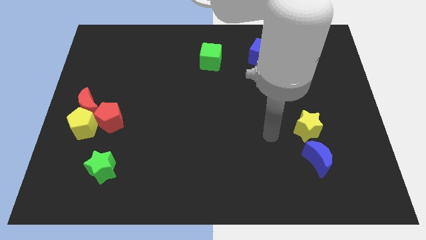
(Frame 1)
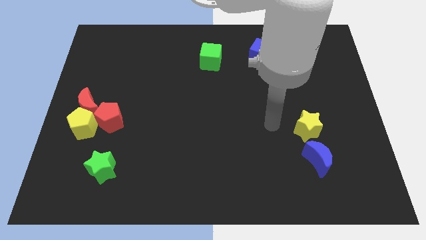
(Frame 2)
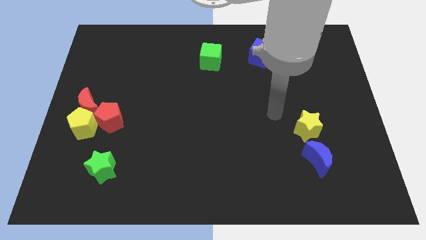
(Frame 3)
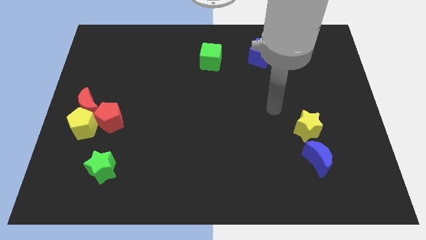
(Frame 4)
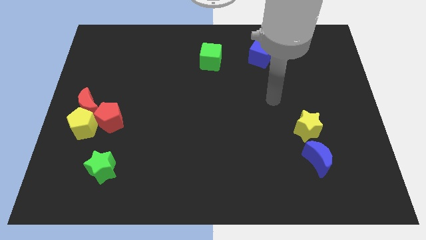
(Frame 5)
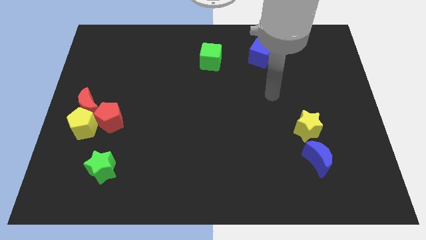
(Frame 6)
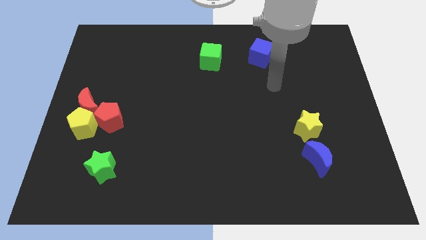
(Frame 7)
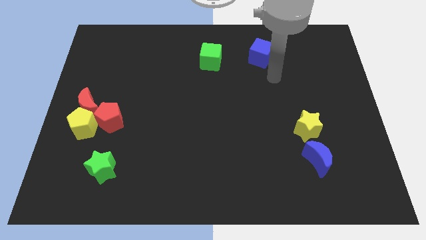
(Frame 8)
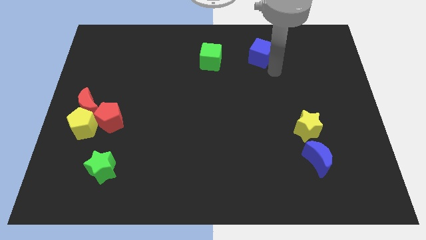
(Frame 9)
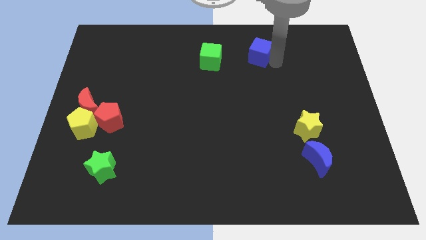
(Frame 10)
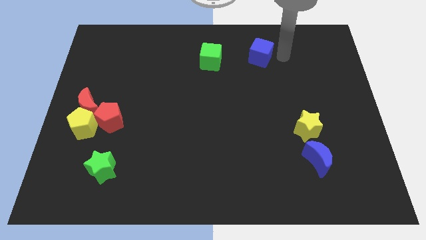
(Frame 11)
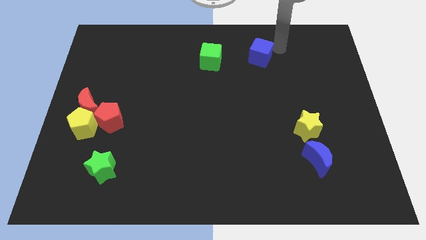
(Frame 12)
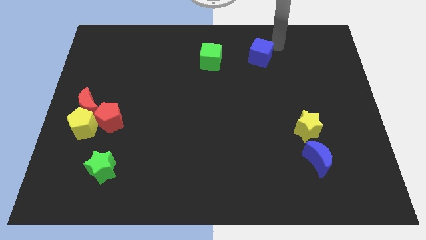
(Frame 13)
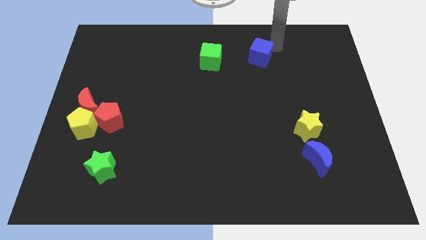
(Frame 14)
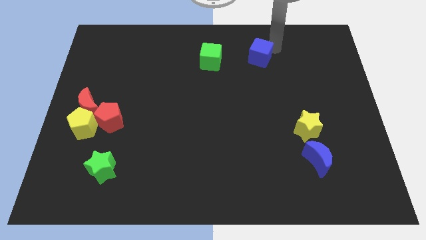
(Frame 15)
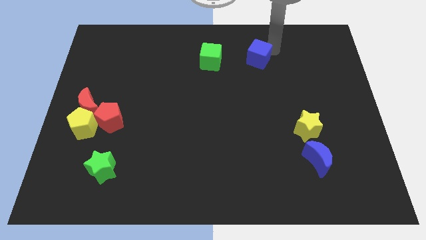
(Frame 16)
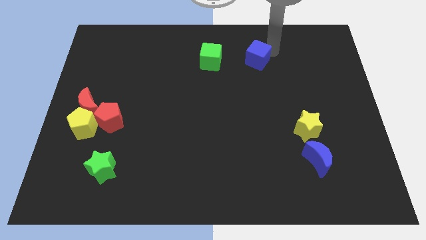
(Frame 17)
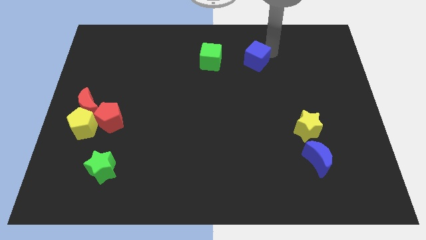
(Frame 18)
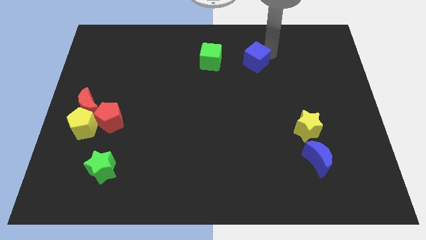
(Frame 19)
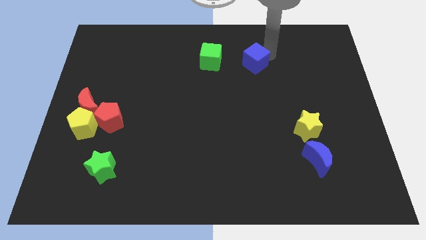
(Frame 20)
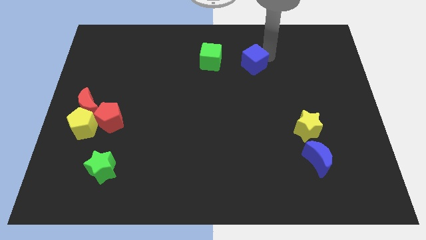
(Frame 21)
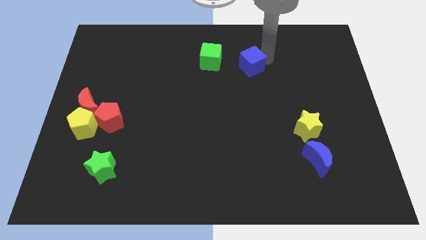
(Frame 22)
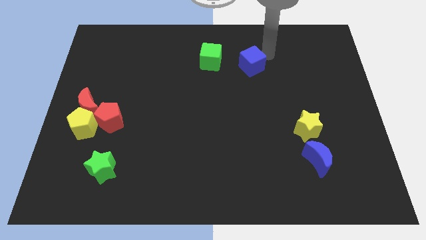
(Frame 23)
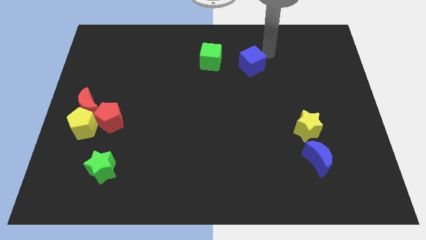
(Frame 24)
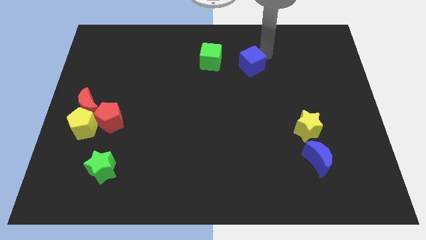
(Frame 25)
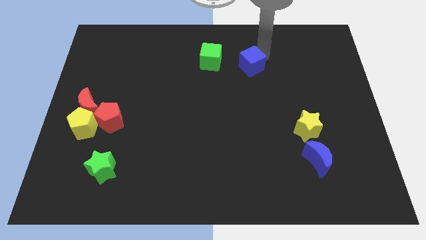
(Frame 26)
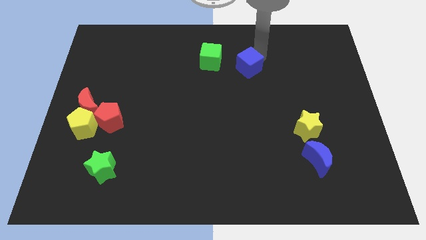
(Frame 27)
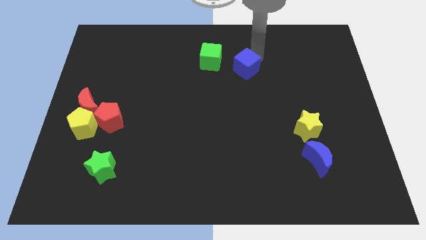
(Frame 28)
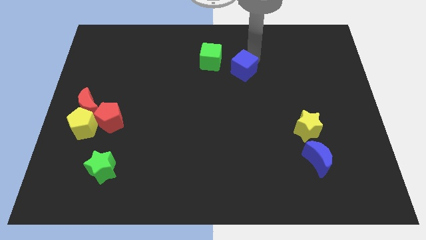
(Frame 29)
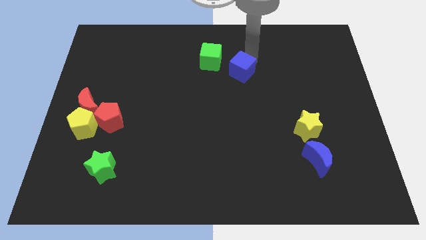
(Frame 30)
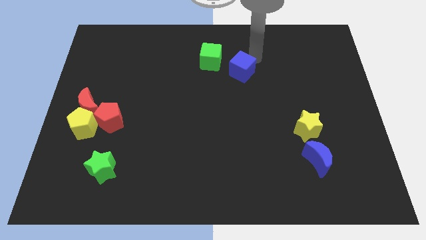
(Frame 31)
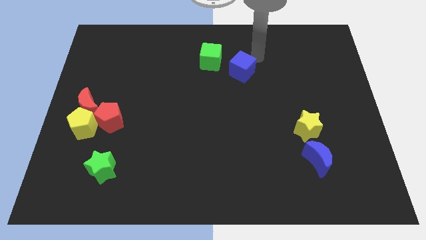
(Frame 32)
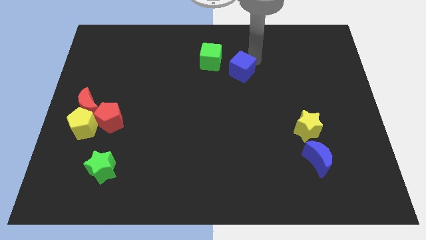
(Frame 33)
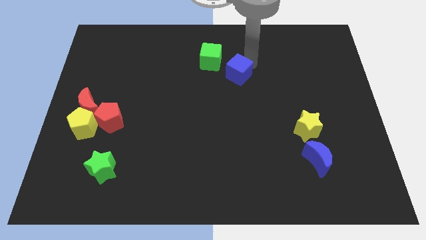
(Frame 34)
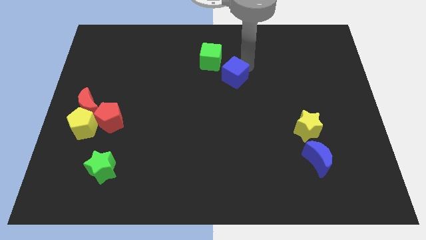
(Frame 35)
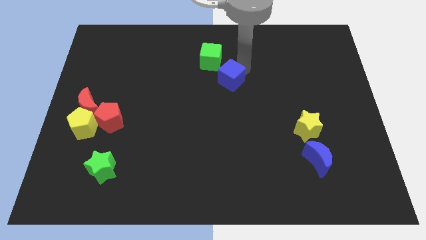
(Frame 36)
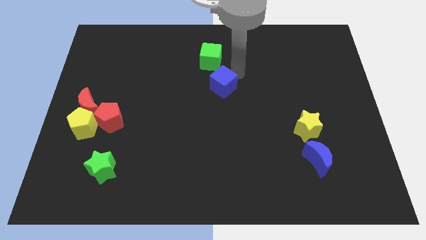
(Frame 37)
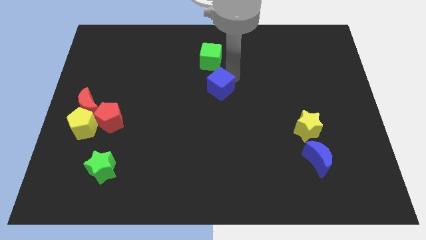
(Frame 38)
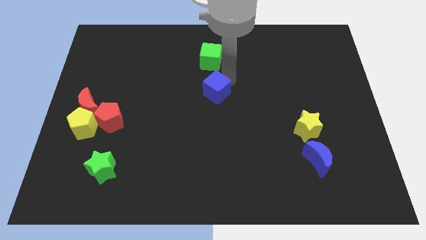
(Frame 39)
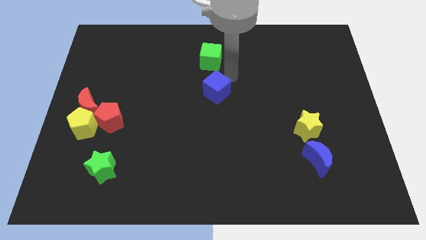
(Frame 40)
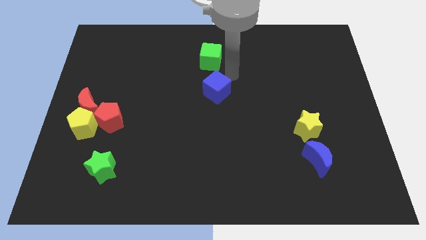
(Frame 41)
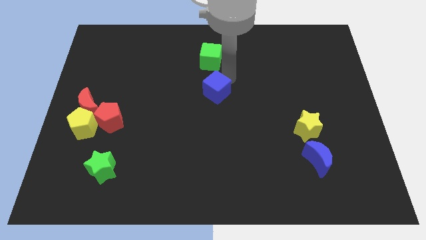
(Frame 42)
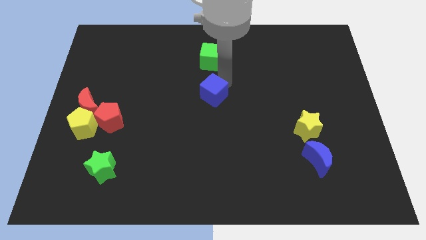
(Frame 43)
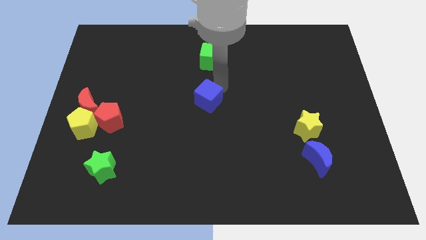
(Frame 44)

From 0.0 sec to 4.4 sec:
slide the blue cube diagonally downwards and to the left

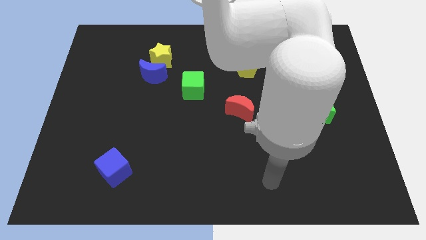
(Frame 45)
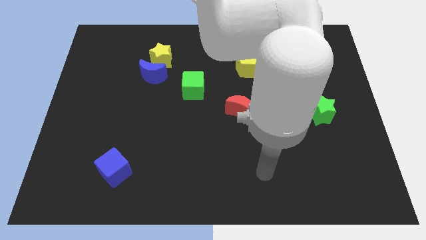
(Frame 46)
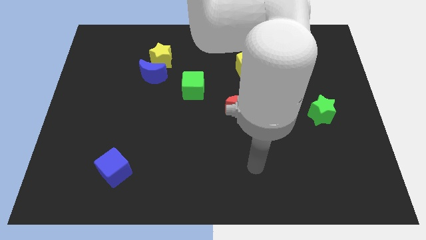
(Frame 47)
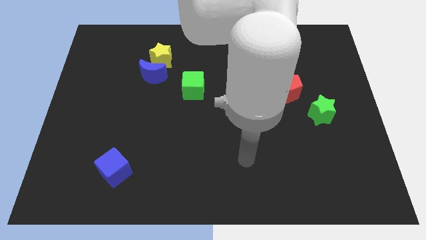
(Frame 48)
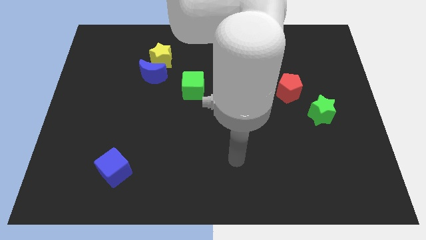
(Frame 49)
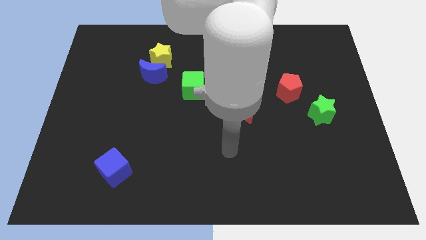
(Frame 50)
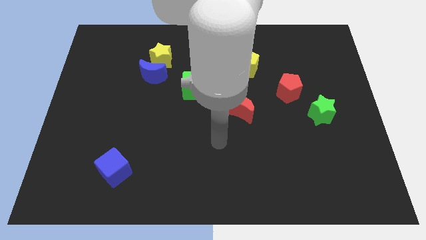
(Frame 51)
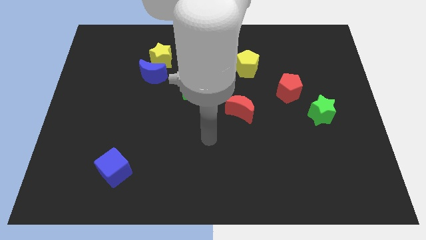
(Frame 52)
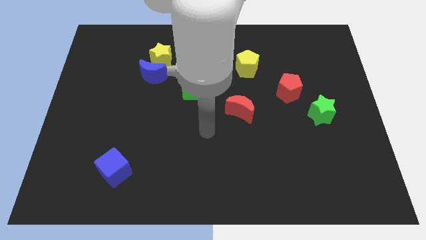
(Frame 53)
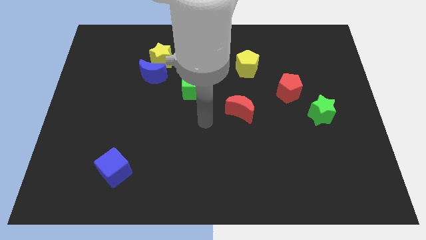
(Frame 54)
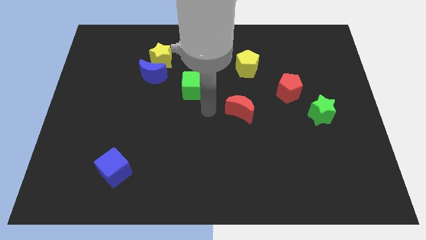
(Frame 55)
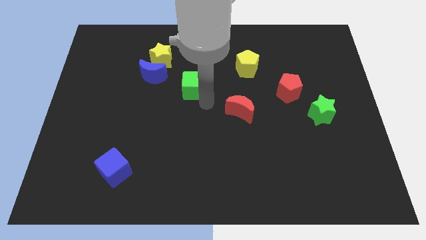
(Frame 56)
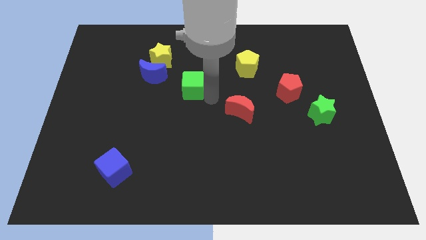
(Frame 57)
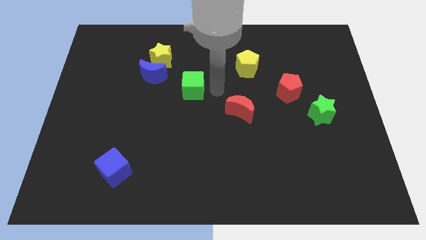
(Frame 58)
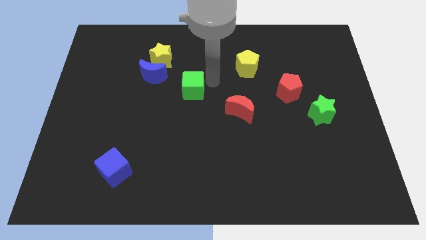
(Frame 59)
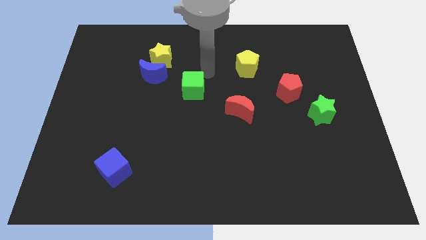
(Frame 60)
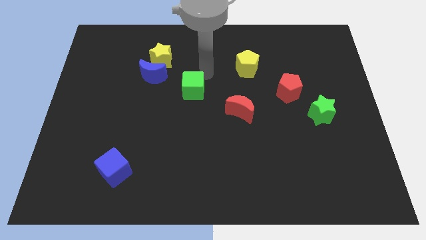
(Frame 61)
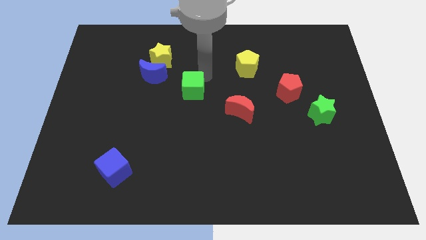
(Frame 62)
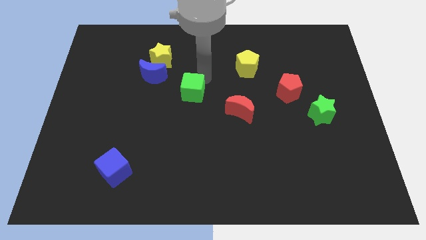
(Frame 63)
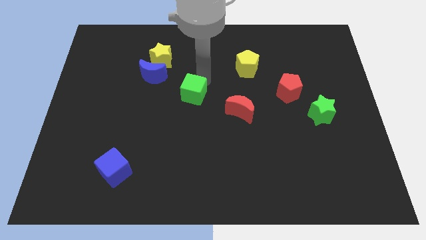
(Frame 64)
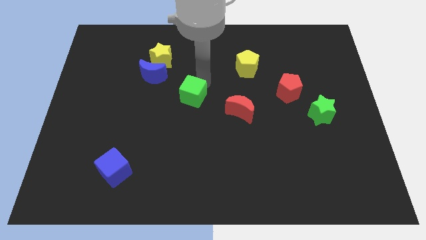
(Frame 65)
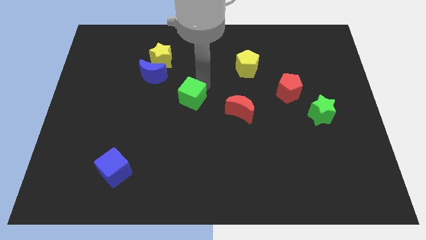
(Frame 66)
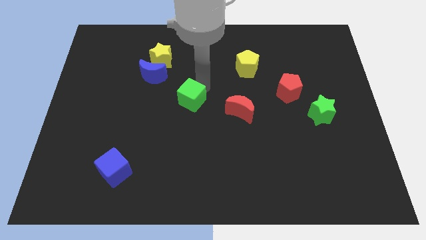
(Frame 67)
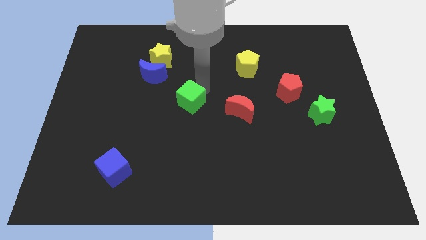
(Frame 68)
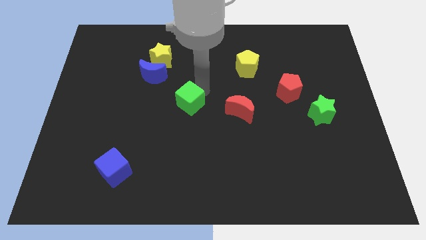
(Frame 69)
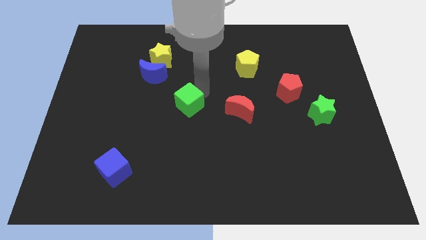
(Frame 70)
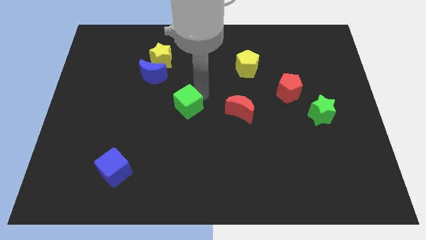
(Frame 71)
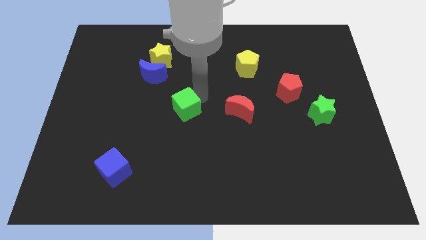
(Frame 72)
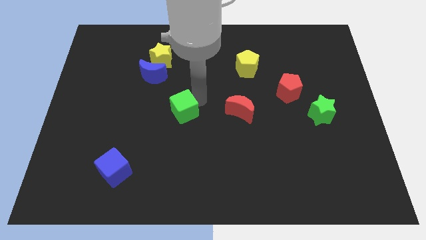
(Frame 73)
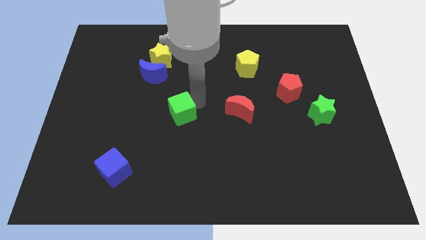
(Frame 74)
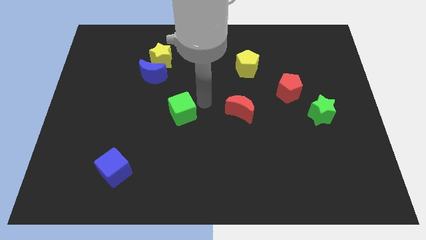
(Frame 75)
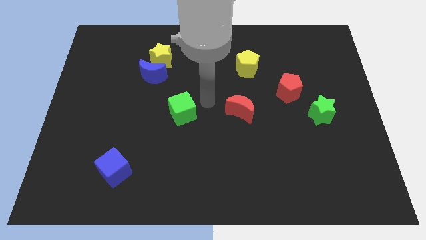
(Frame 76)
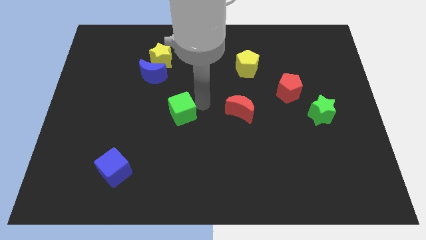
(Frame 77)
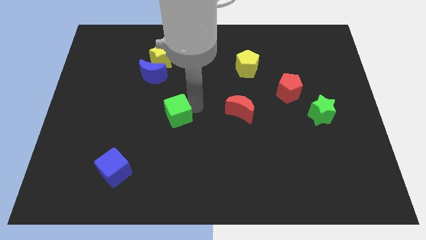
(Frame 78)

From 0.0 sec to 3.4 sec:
push the green cube down and to the left somewhat

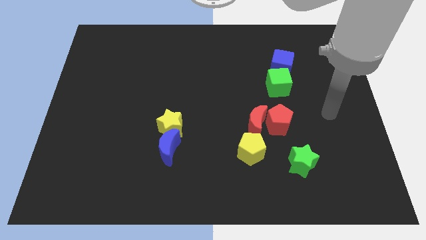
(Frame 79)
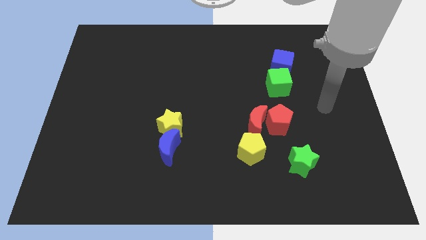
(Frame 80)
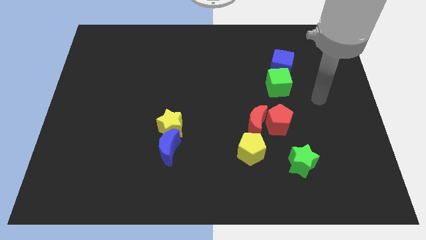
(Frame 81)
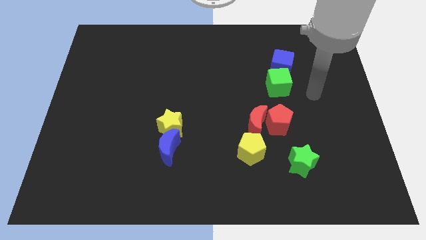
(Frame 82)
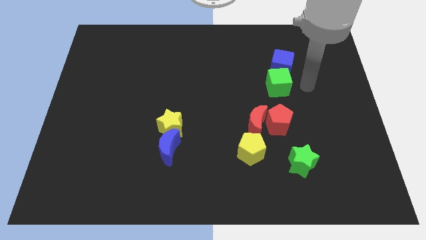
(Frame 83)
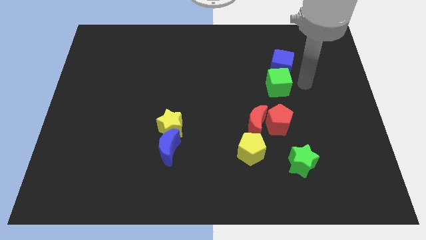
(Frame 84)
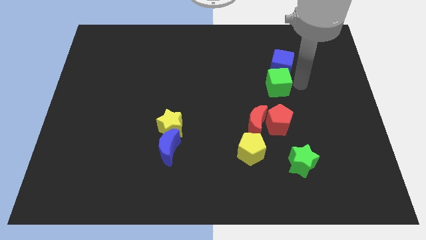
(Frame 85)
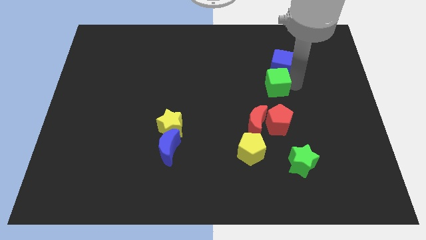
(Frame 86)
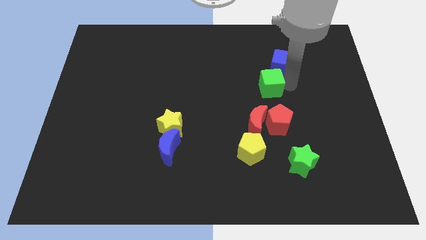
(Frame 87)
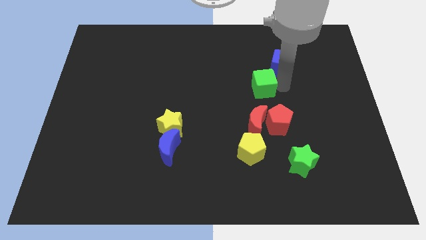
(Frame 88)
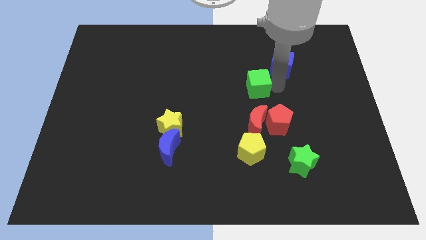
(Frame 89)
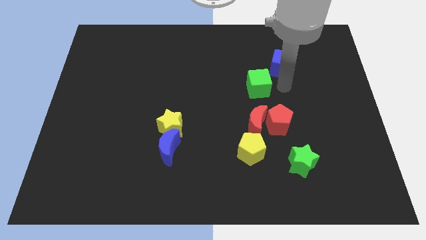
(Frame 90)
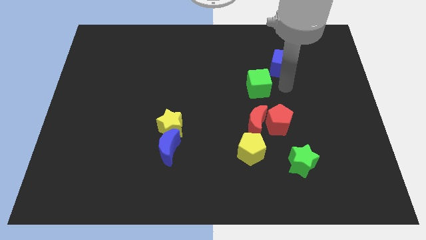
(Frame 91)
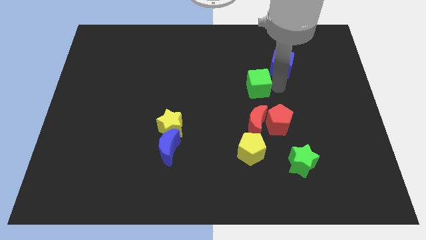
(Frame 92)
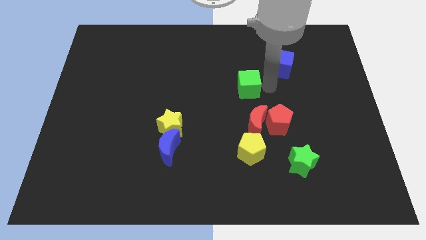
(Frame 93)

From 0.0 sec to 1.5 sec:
slightly push the green cube to the left
